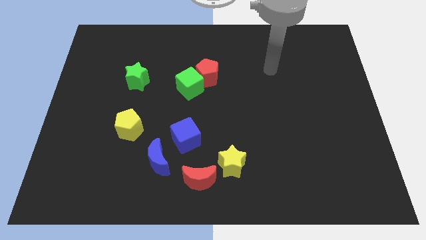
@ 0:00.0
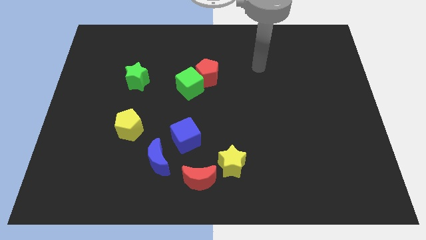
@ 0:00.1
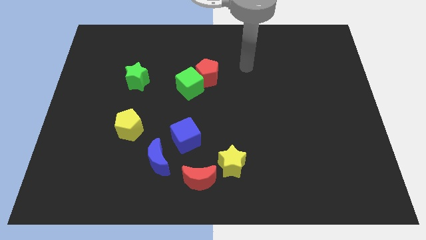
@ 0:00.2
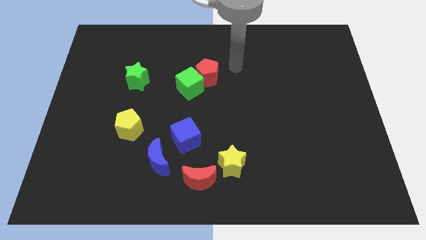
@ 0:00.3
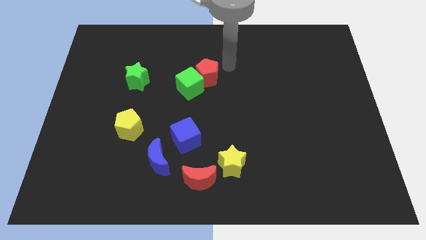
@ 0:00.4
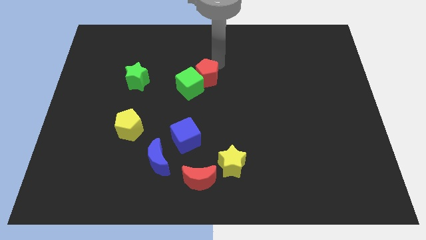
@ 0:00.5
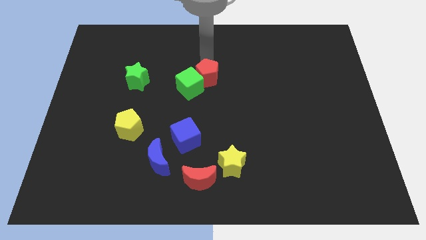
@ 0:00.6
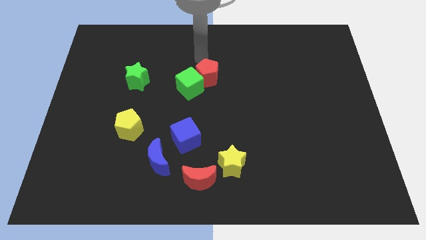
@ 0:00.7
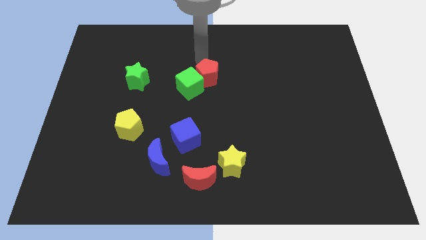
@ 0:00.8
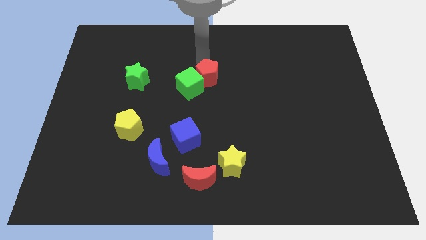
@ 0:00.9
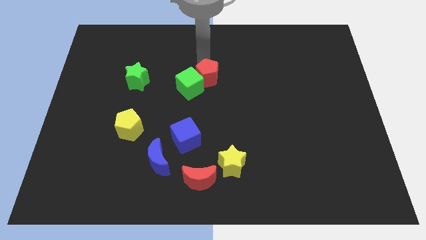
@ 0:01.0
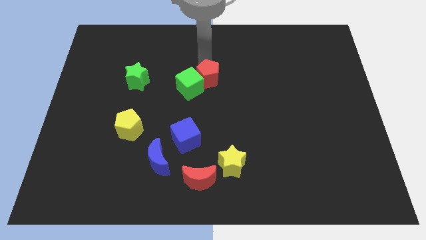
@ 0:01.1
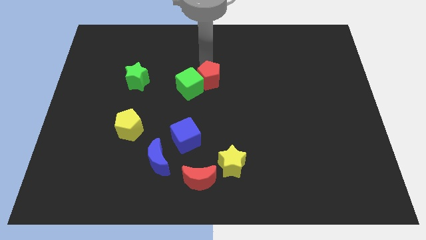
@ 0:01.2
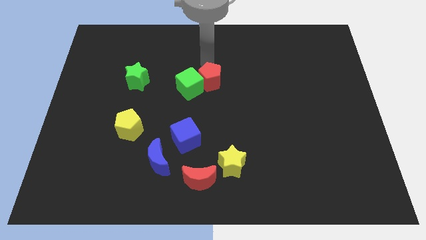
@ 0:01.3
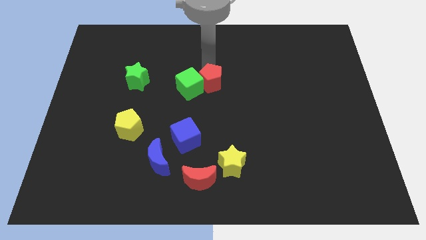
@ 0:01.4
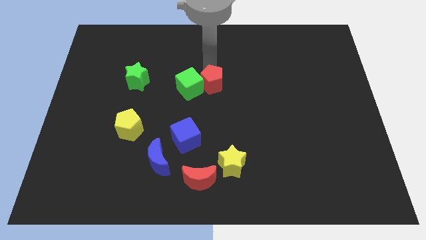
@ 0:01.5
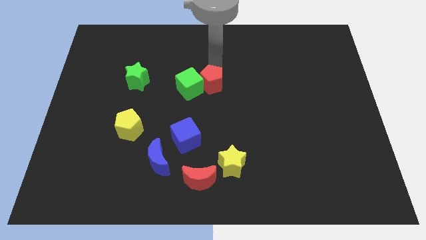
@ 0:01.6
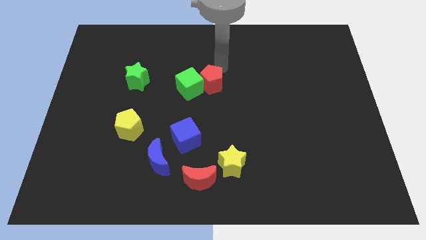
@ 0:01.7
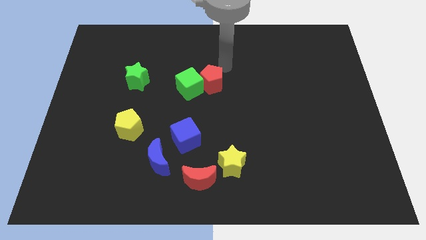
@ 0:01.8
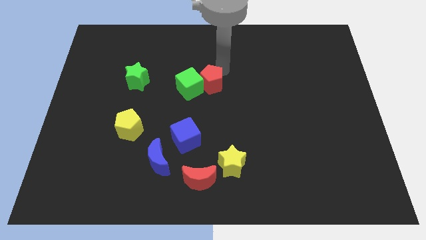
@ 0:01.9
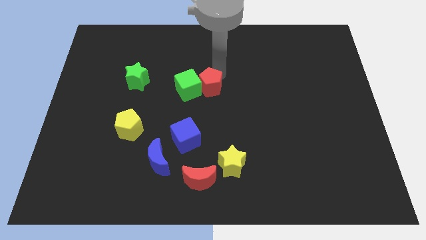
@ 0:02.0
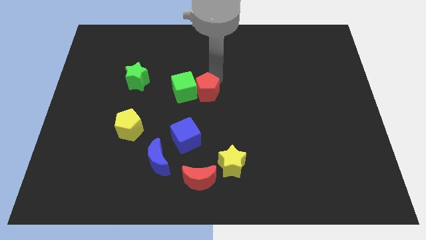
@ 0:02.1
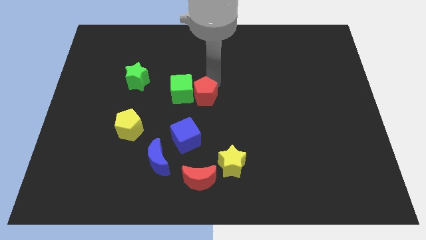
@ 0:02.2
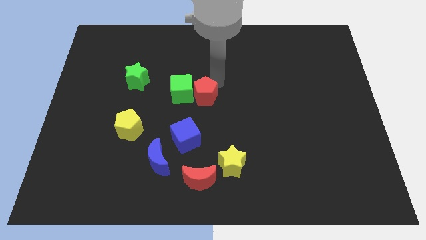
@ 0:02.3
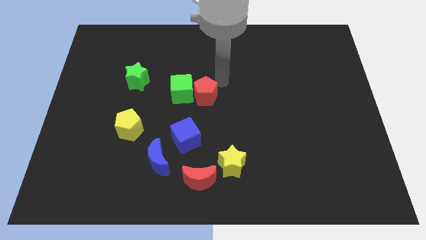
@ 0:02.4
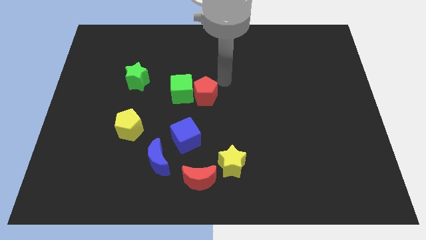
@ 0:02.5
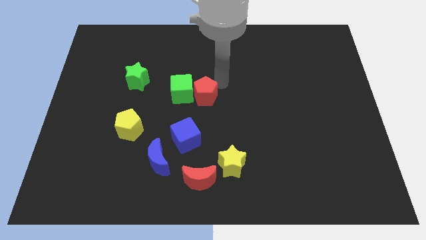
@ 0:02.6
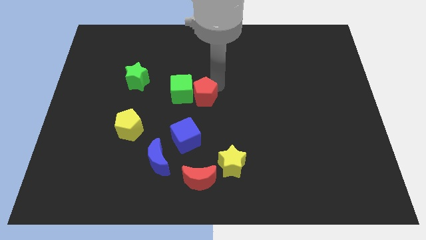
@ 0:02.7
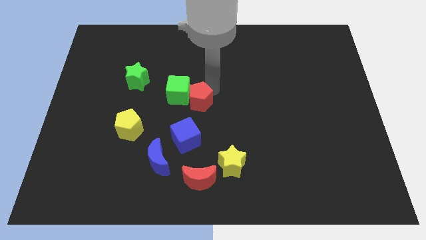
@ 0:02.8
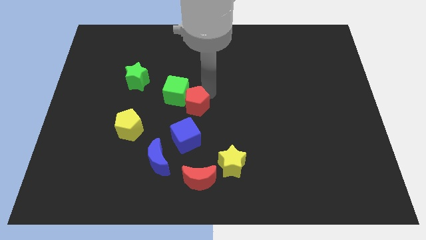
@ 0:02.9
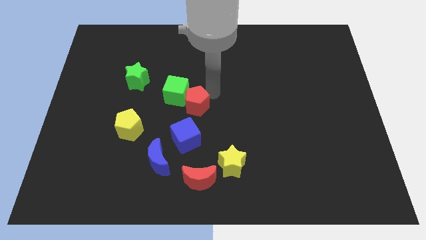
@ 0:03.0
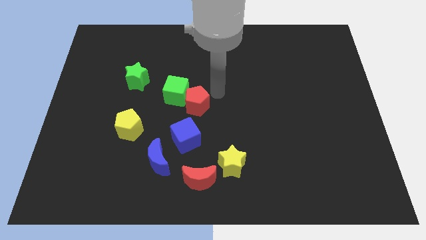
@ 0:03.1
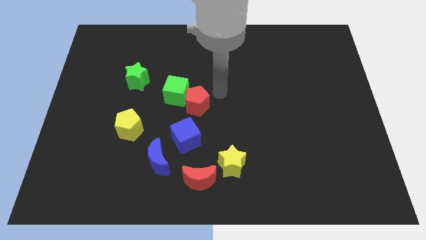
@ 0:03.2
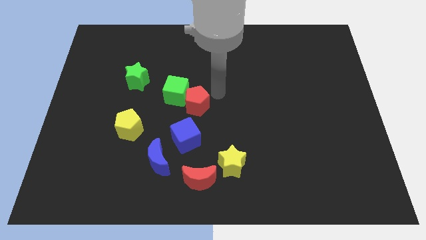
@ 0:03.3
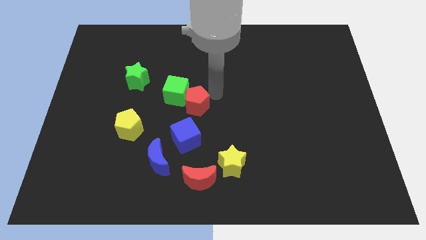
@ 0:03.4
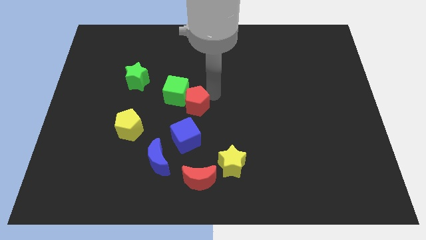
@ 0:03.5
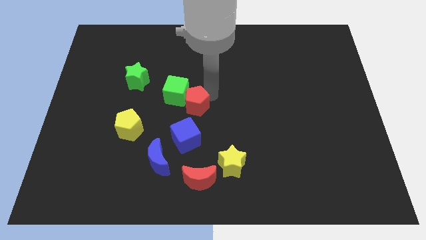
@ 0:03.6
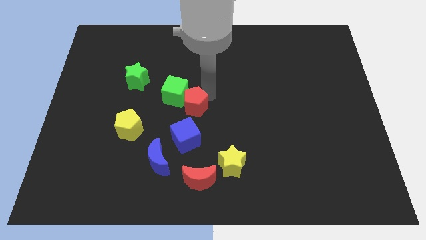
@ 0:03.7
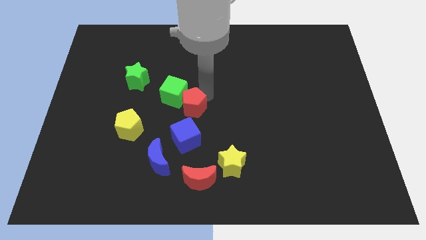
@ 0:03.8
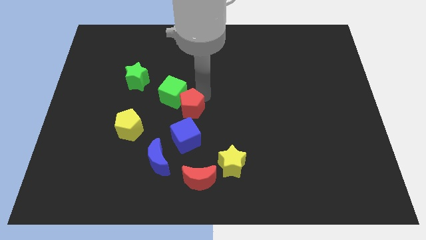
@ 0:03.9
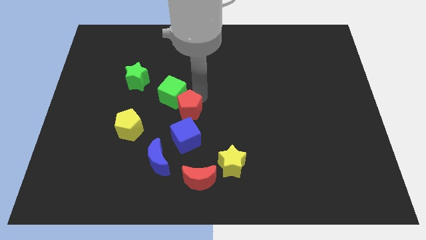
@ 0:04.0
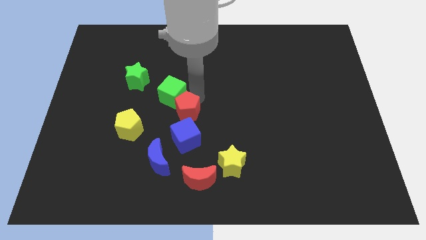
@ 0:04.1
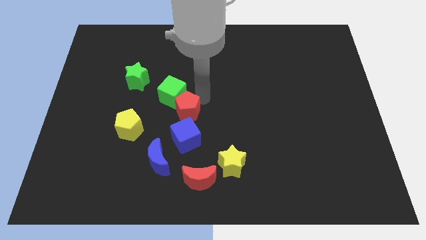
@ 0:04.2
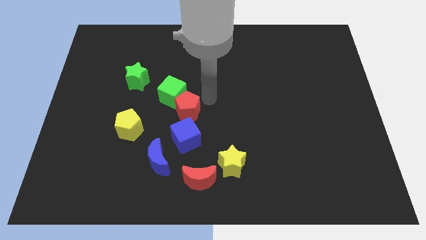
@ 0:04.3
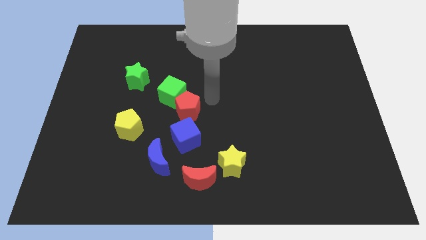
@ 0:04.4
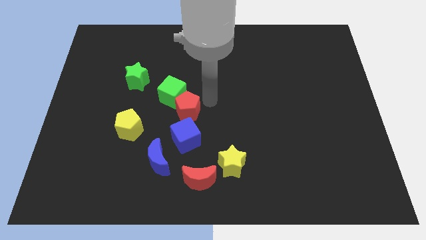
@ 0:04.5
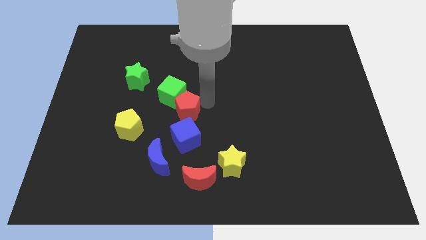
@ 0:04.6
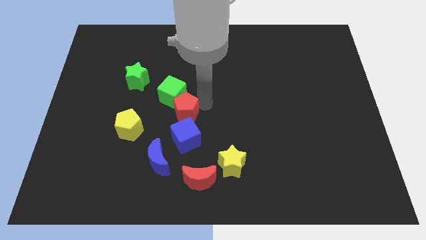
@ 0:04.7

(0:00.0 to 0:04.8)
put the red pentagon to the top left of the blue cube

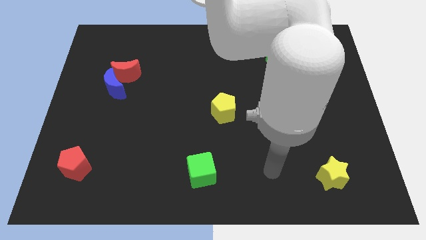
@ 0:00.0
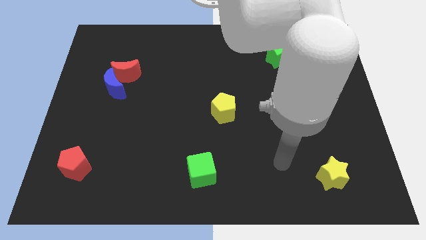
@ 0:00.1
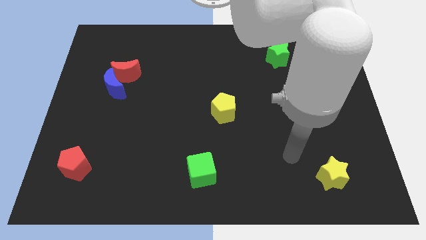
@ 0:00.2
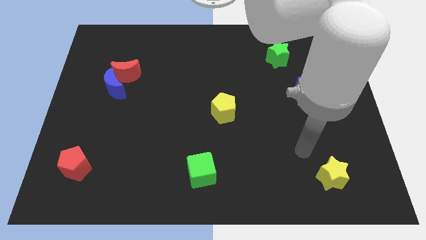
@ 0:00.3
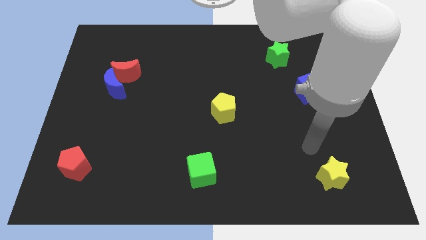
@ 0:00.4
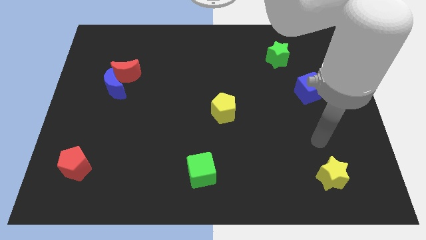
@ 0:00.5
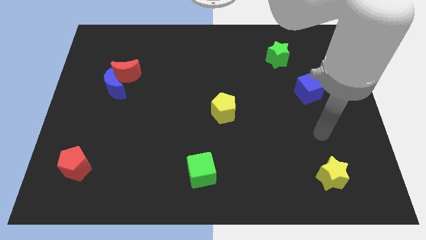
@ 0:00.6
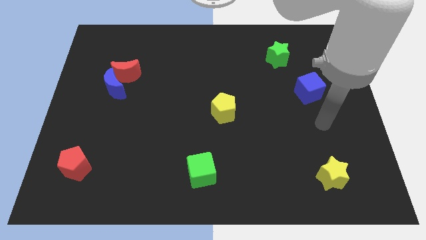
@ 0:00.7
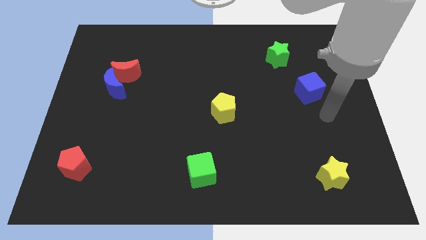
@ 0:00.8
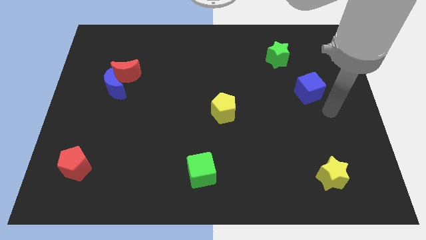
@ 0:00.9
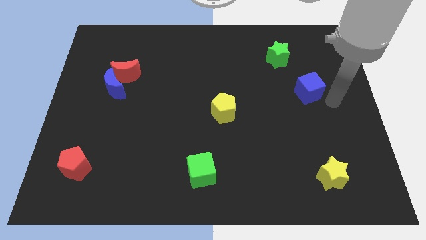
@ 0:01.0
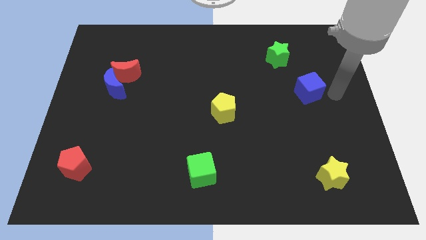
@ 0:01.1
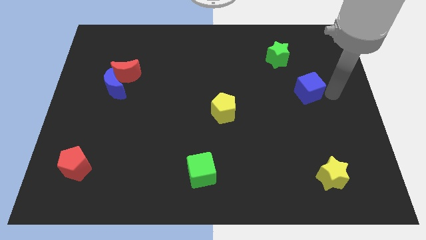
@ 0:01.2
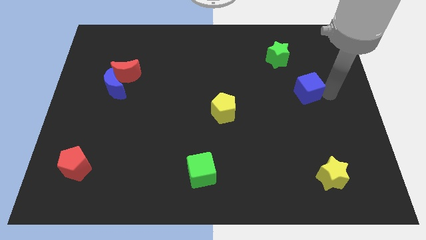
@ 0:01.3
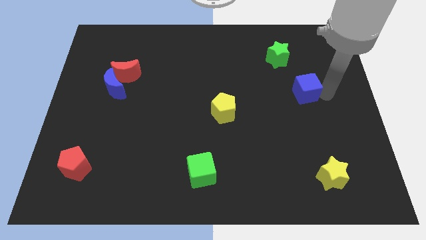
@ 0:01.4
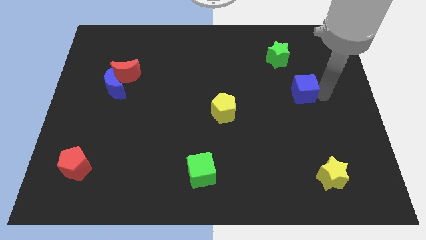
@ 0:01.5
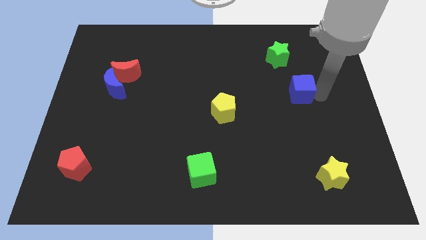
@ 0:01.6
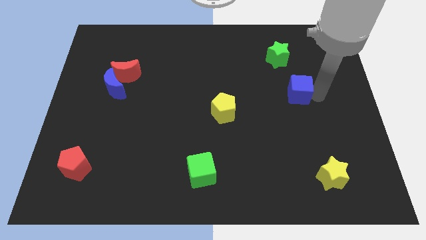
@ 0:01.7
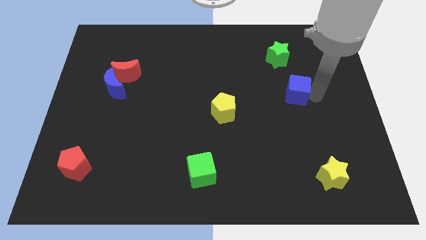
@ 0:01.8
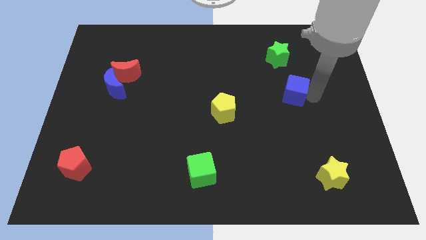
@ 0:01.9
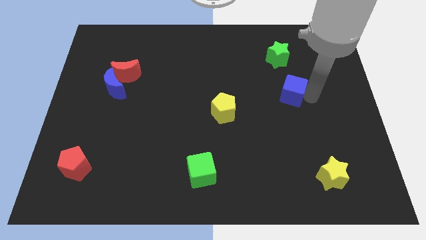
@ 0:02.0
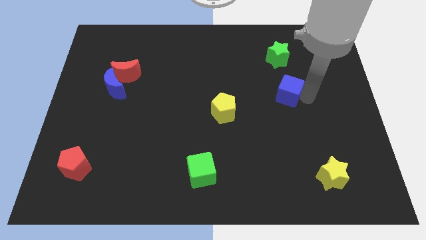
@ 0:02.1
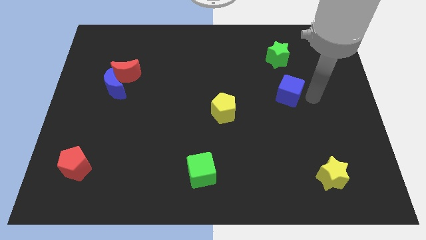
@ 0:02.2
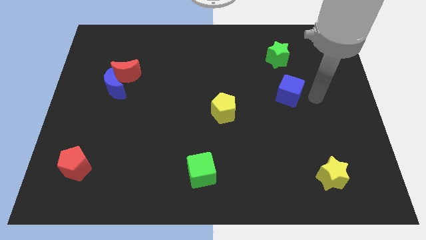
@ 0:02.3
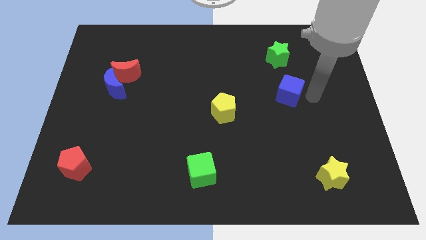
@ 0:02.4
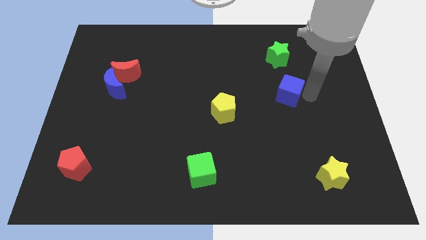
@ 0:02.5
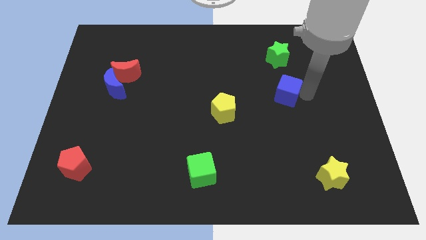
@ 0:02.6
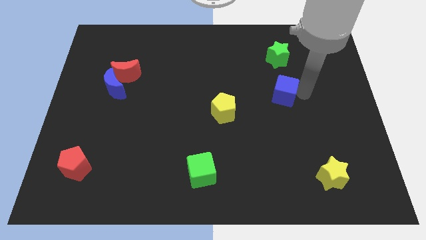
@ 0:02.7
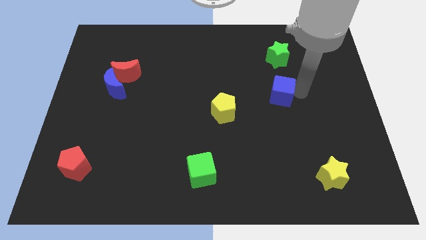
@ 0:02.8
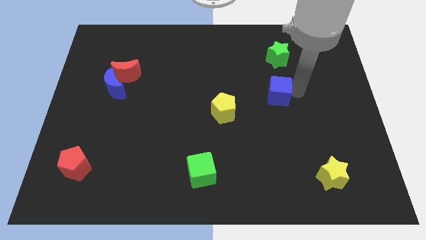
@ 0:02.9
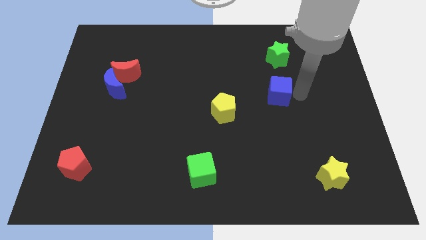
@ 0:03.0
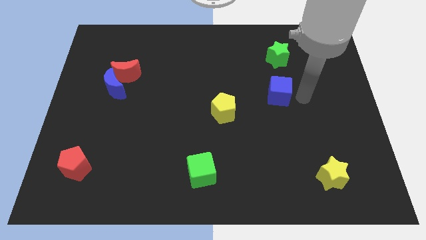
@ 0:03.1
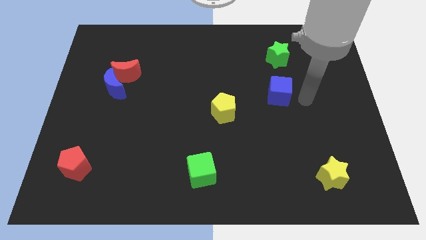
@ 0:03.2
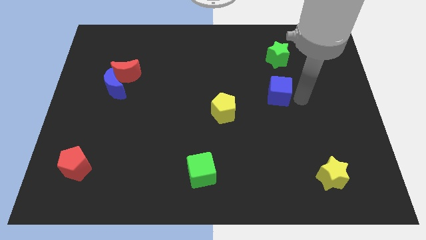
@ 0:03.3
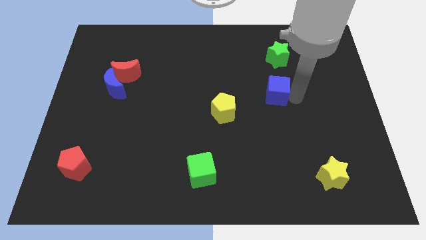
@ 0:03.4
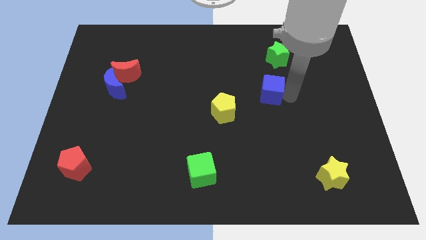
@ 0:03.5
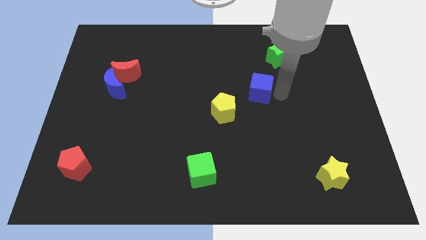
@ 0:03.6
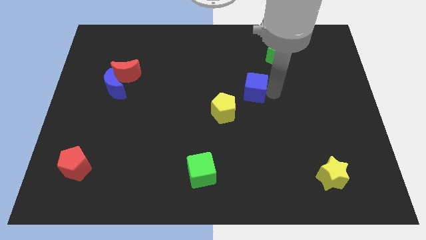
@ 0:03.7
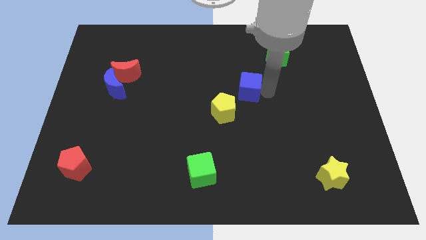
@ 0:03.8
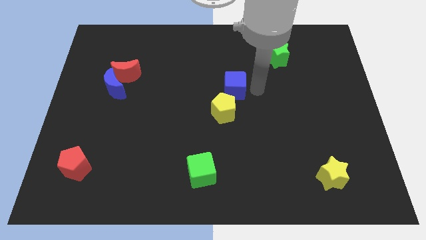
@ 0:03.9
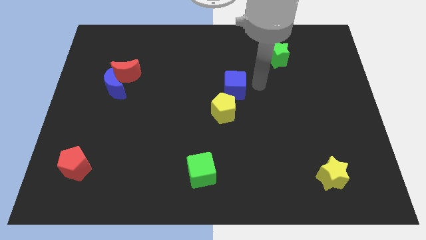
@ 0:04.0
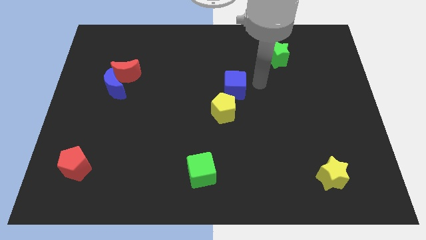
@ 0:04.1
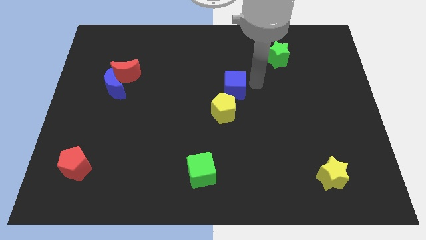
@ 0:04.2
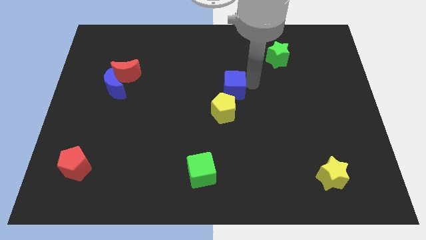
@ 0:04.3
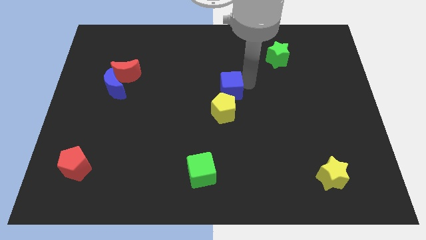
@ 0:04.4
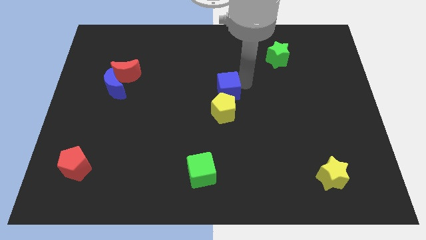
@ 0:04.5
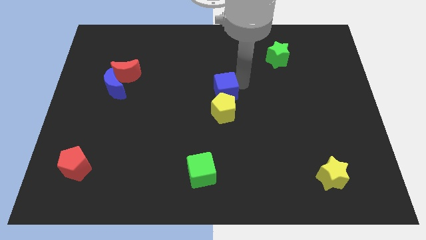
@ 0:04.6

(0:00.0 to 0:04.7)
move the blue cube to the top left side of the yellow pentagon
